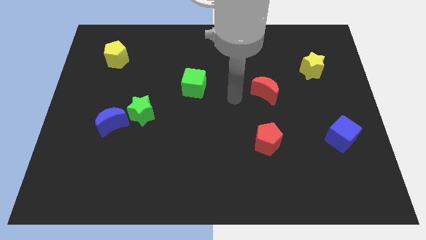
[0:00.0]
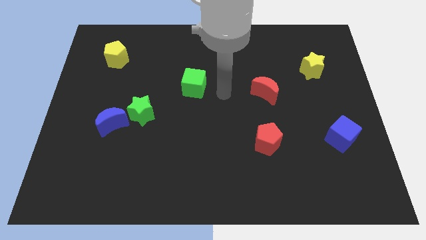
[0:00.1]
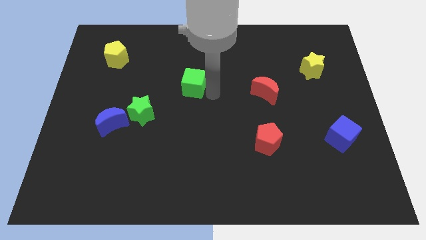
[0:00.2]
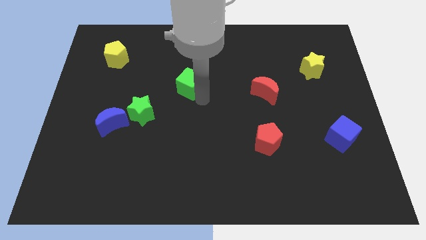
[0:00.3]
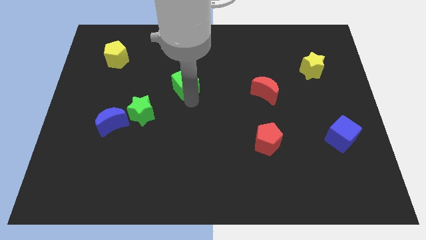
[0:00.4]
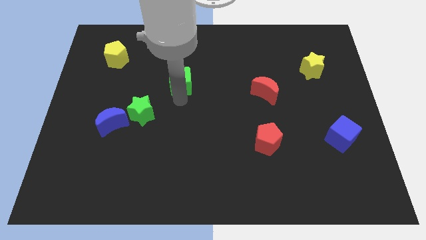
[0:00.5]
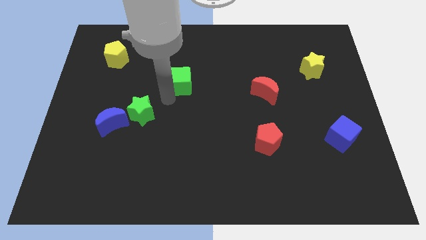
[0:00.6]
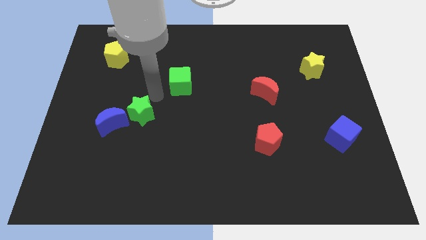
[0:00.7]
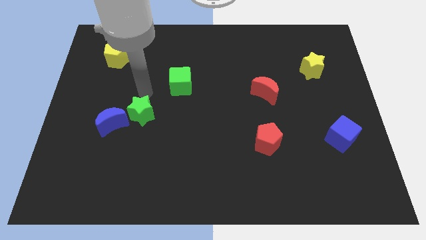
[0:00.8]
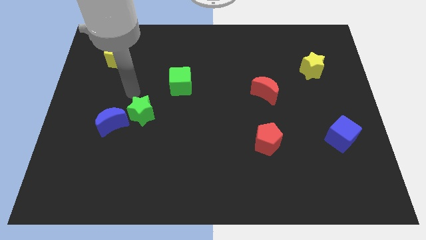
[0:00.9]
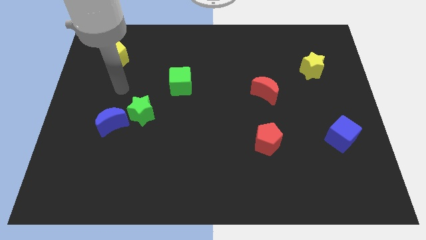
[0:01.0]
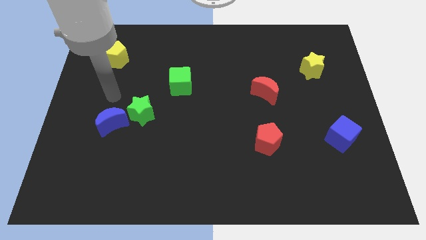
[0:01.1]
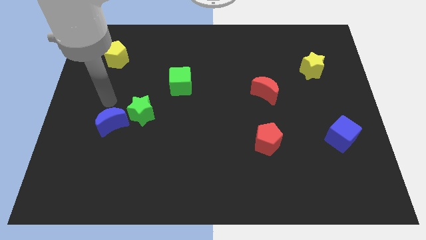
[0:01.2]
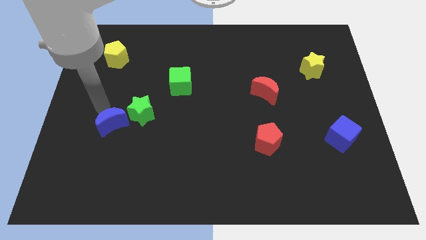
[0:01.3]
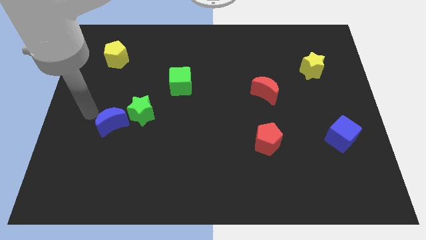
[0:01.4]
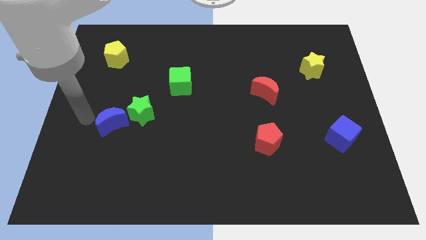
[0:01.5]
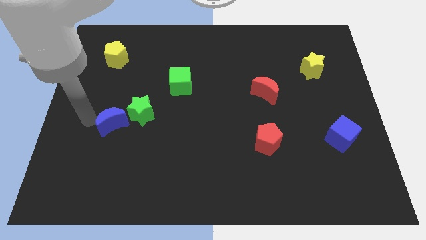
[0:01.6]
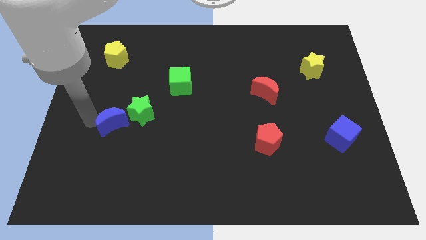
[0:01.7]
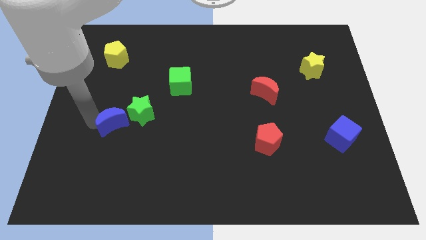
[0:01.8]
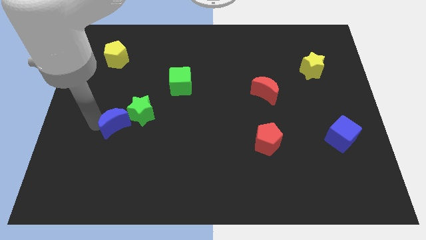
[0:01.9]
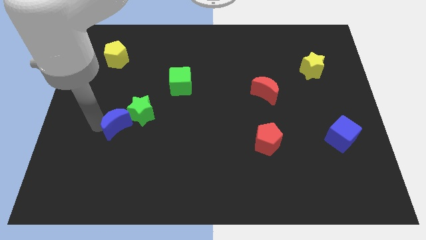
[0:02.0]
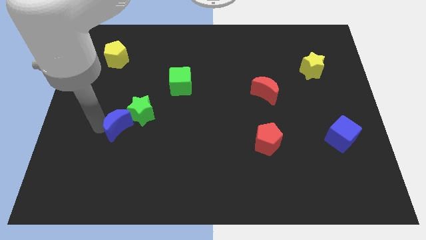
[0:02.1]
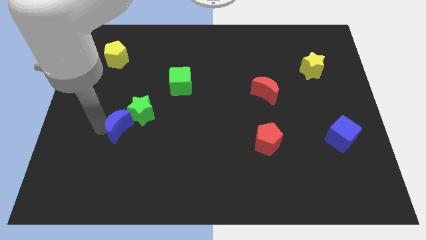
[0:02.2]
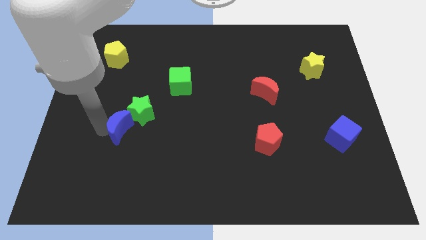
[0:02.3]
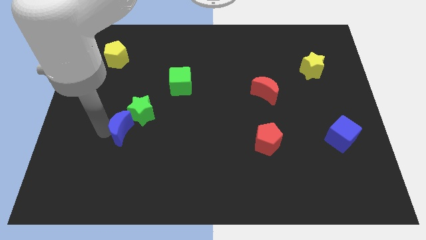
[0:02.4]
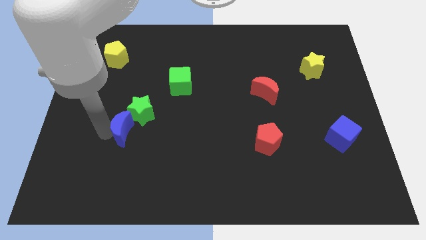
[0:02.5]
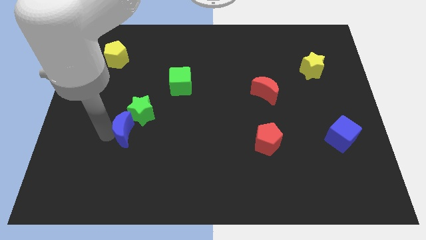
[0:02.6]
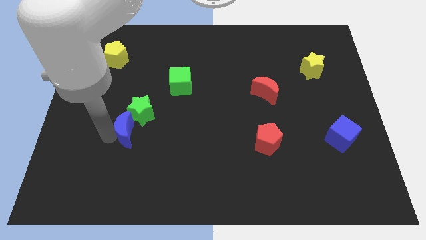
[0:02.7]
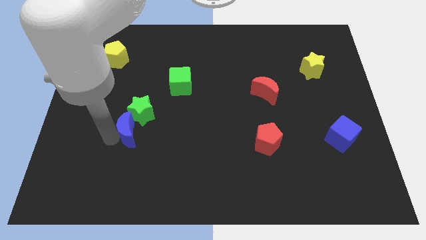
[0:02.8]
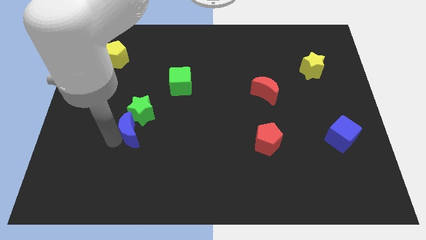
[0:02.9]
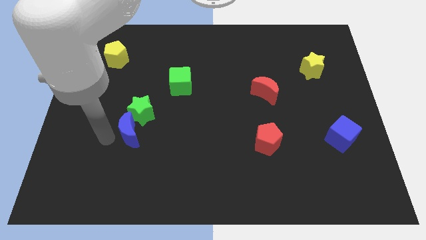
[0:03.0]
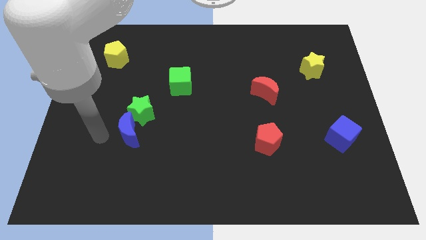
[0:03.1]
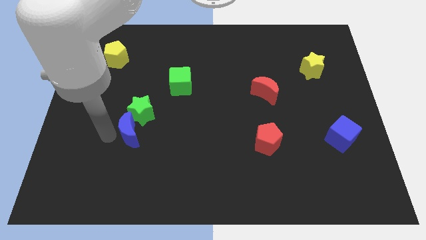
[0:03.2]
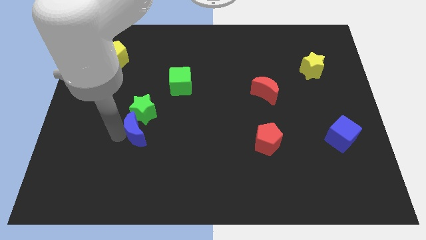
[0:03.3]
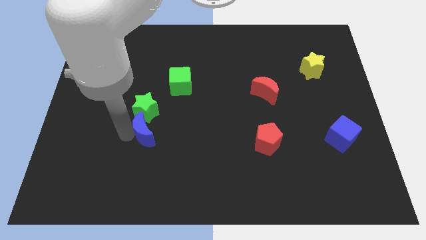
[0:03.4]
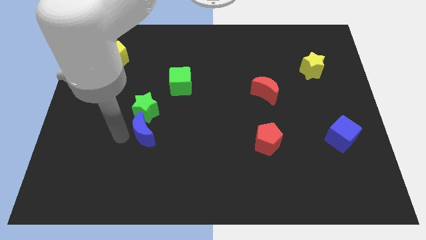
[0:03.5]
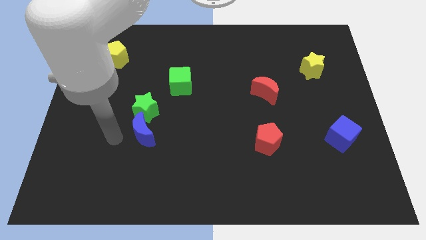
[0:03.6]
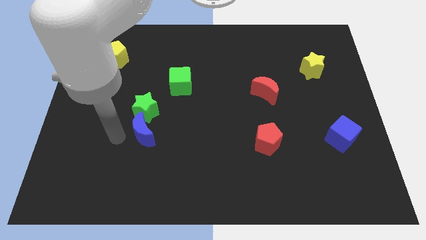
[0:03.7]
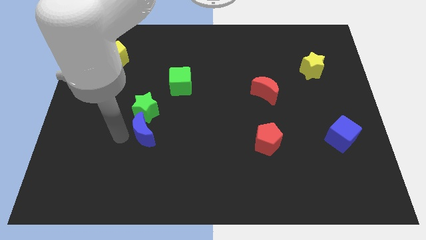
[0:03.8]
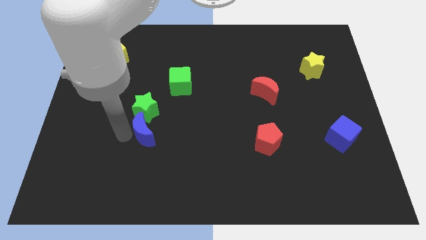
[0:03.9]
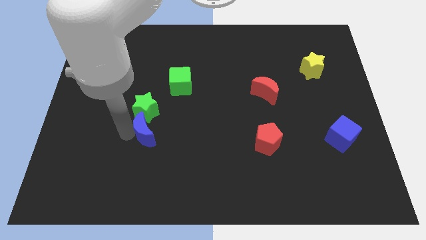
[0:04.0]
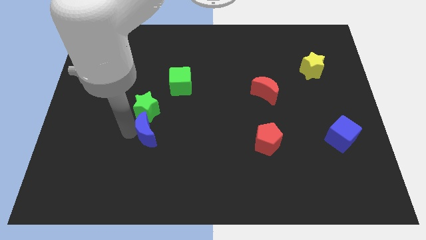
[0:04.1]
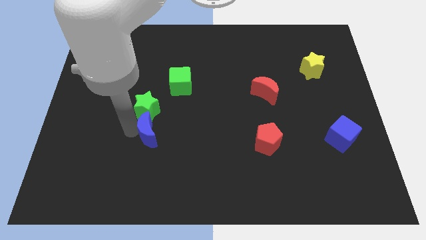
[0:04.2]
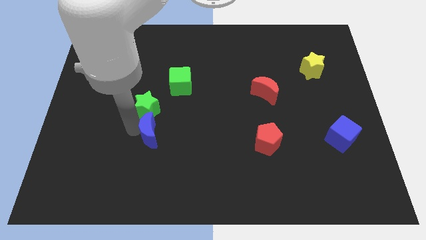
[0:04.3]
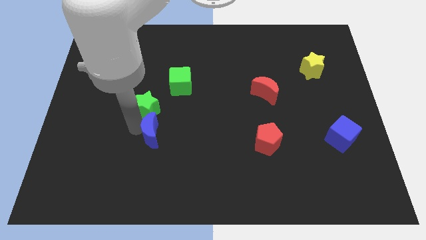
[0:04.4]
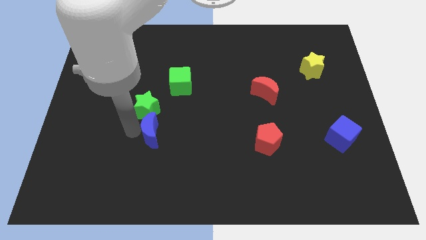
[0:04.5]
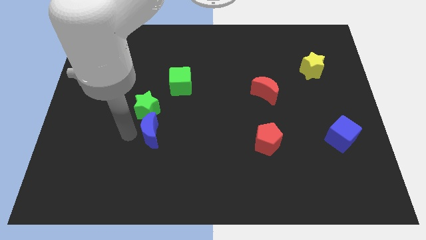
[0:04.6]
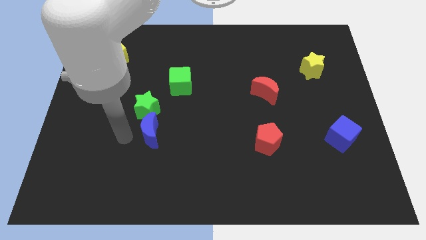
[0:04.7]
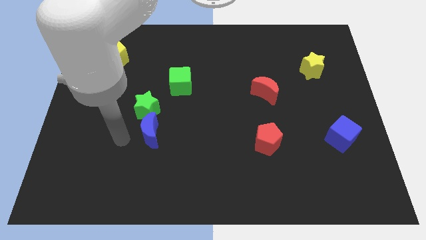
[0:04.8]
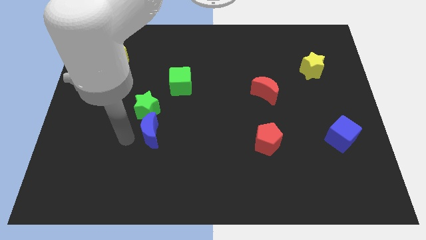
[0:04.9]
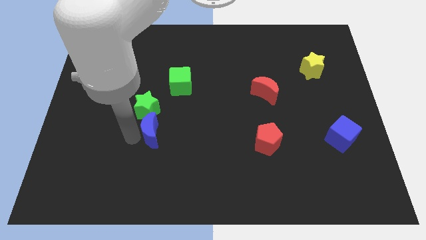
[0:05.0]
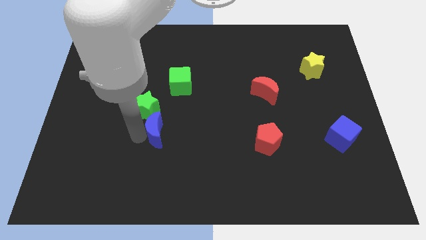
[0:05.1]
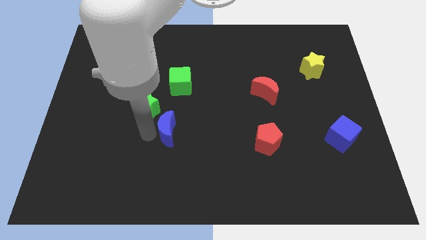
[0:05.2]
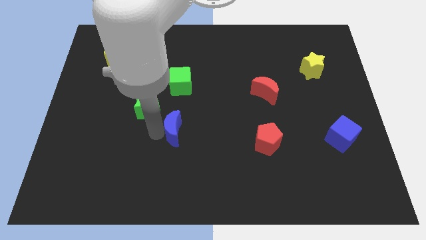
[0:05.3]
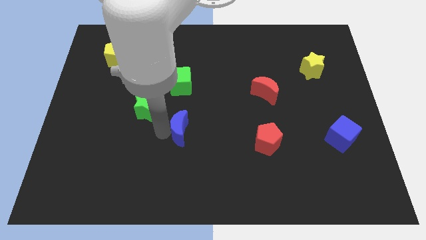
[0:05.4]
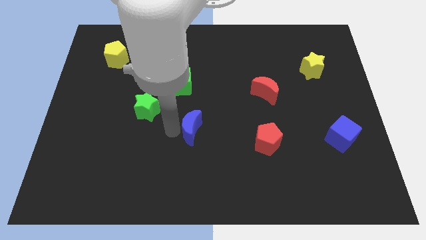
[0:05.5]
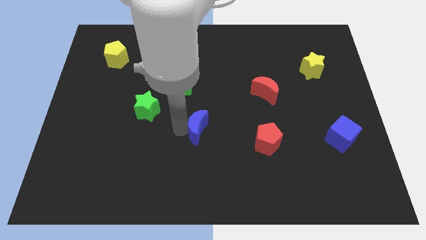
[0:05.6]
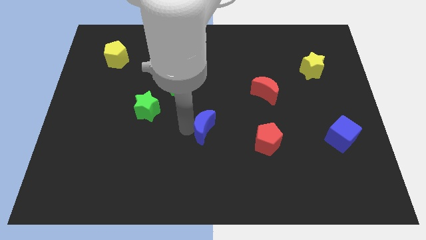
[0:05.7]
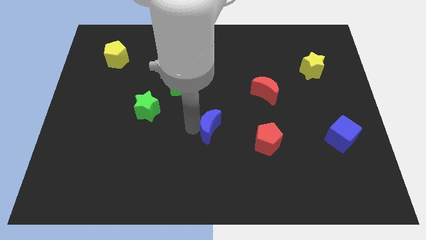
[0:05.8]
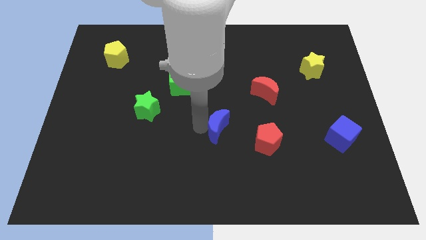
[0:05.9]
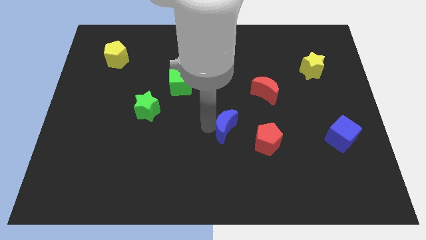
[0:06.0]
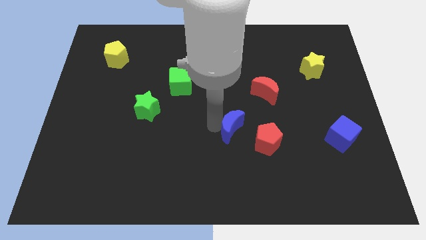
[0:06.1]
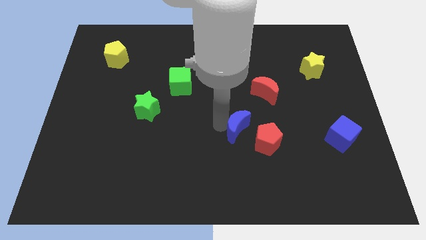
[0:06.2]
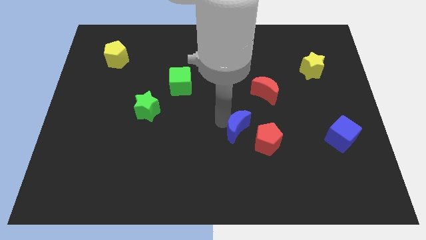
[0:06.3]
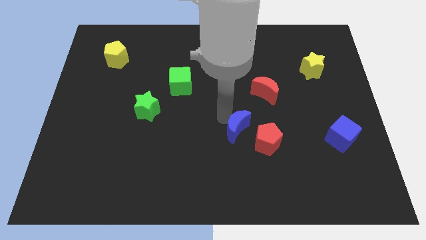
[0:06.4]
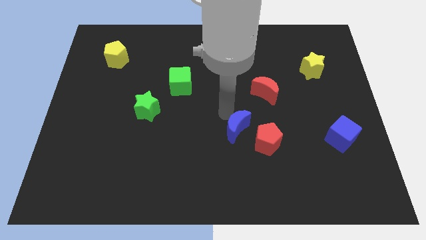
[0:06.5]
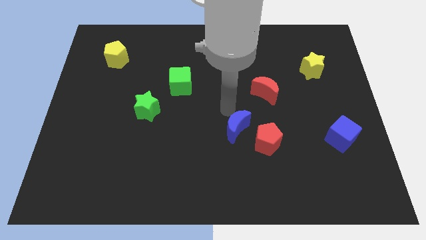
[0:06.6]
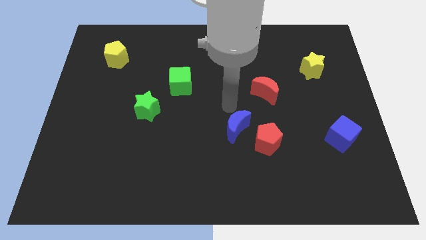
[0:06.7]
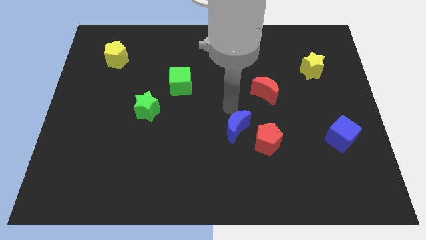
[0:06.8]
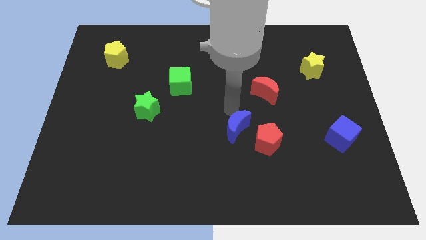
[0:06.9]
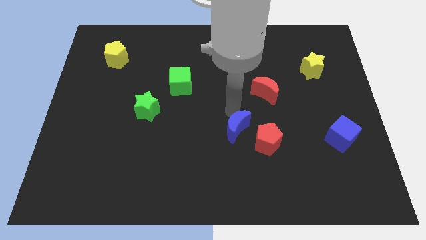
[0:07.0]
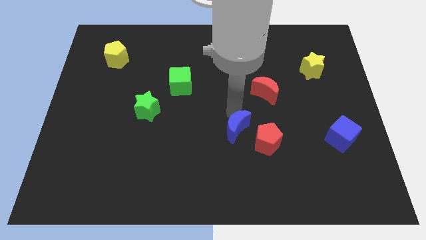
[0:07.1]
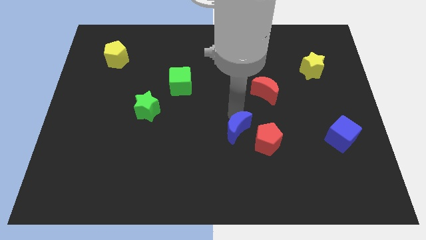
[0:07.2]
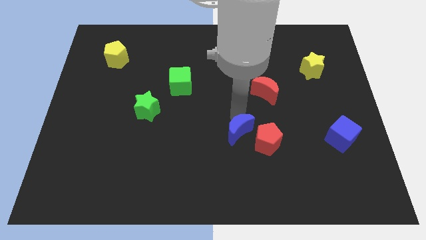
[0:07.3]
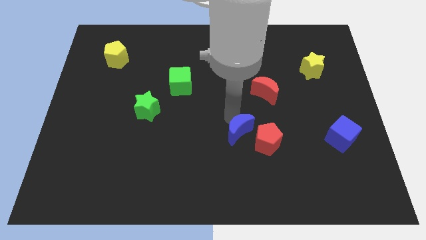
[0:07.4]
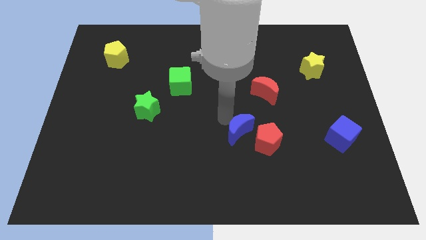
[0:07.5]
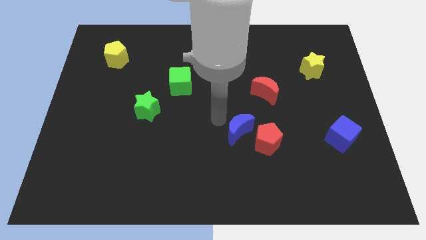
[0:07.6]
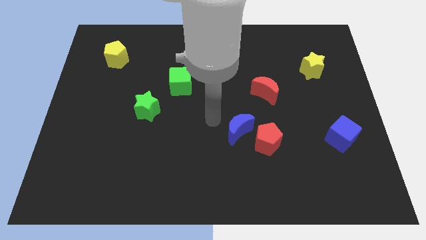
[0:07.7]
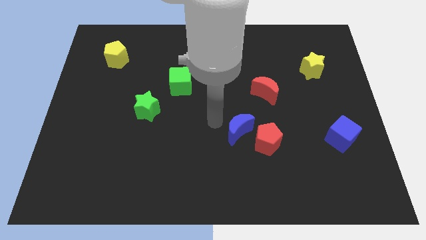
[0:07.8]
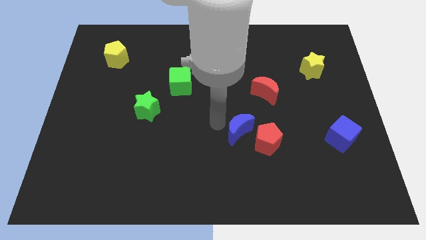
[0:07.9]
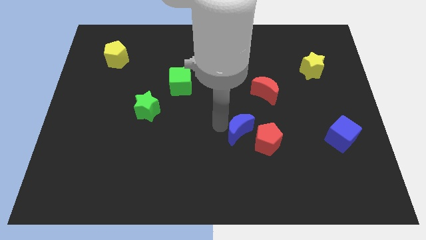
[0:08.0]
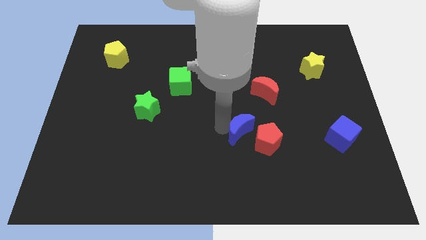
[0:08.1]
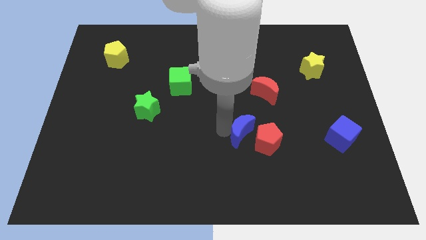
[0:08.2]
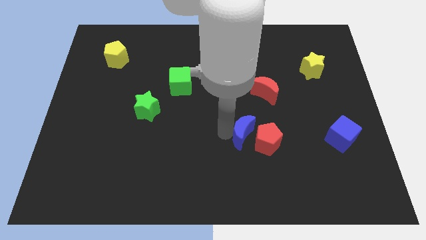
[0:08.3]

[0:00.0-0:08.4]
slide the blue moon close to the red pentagon
